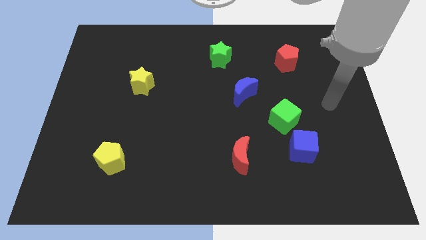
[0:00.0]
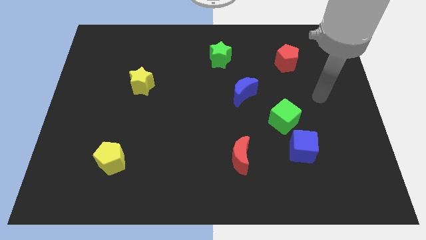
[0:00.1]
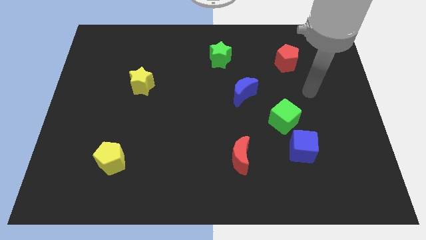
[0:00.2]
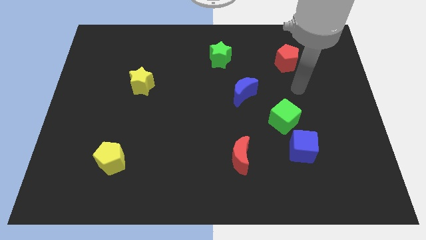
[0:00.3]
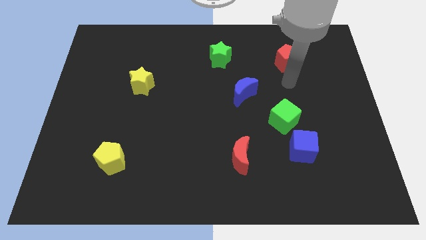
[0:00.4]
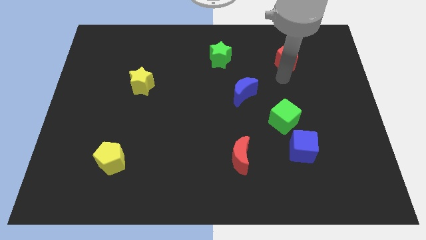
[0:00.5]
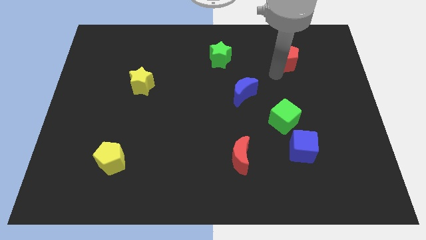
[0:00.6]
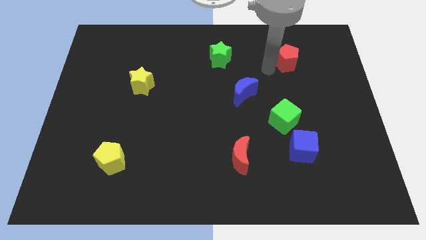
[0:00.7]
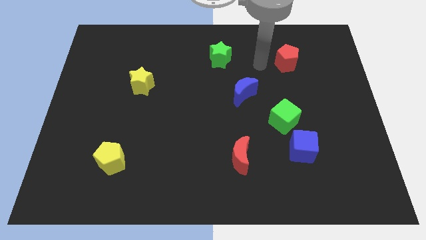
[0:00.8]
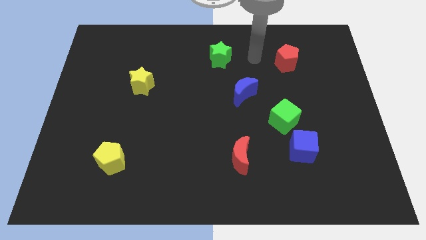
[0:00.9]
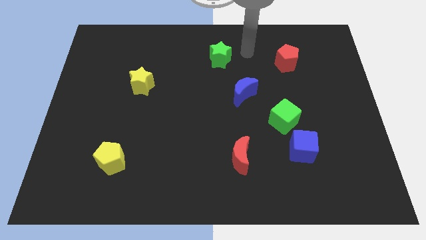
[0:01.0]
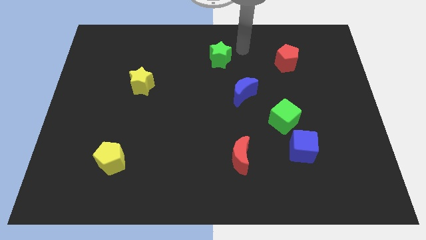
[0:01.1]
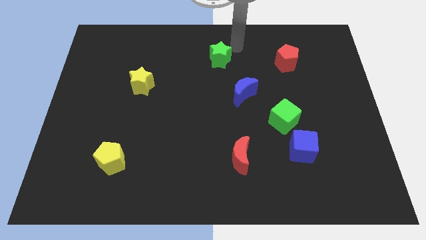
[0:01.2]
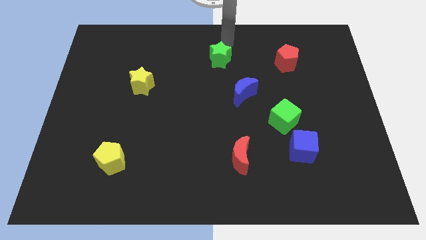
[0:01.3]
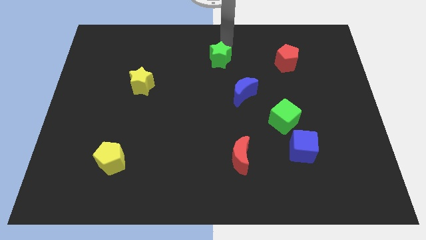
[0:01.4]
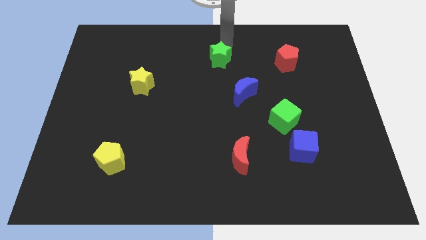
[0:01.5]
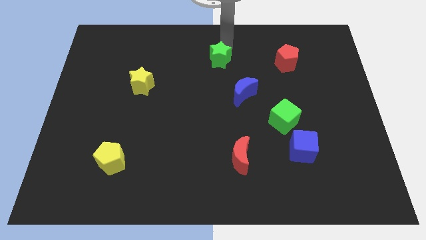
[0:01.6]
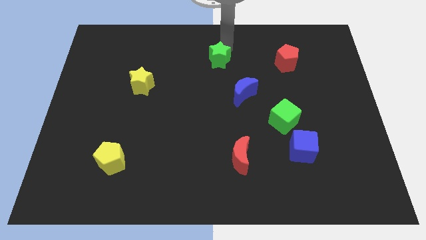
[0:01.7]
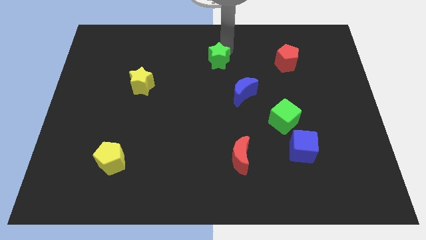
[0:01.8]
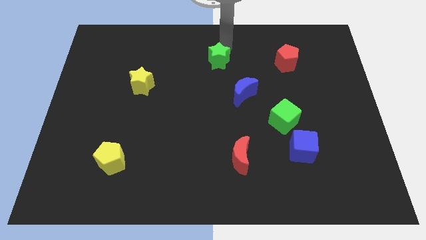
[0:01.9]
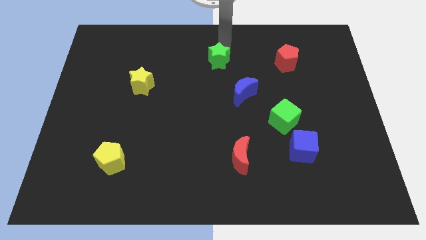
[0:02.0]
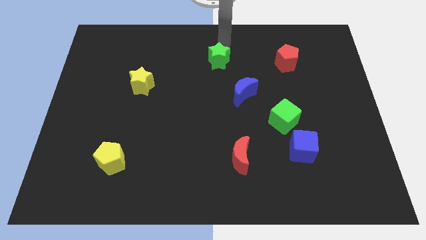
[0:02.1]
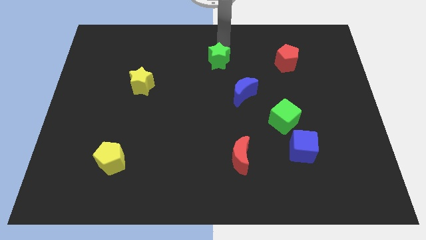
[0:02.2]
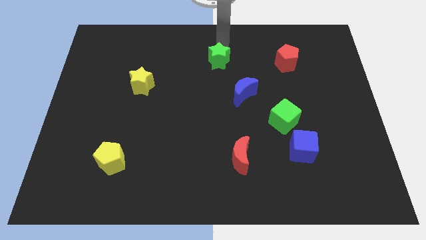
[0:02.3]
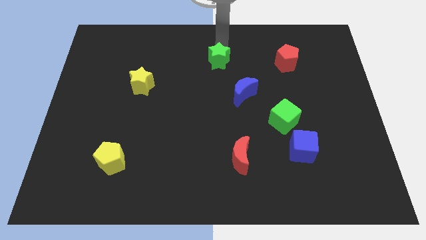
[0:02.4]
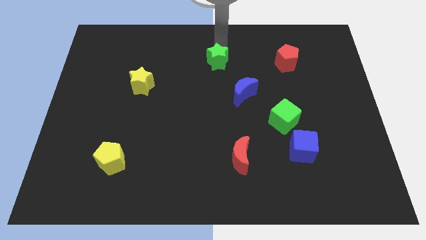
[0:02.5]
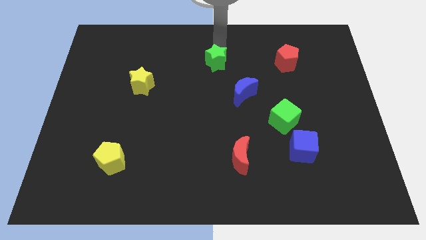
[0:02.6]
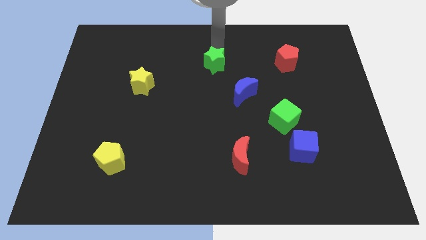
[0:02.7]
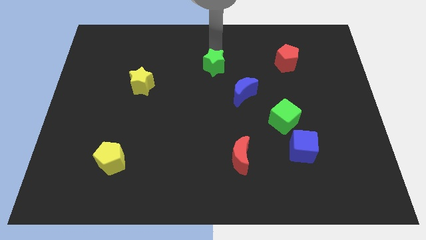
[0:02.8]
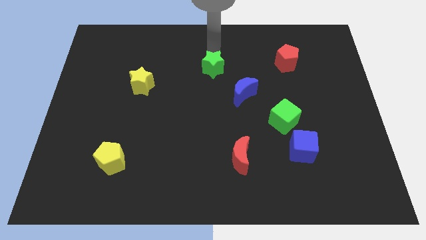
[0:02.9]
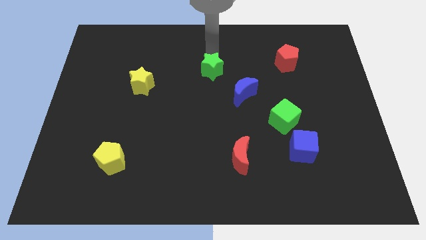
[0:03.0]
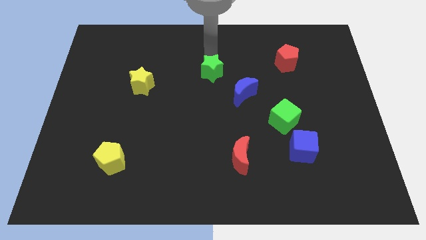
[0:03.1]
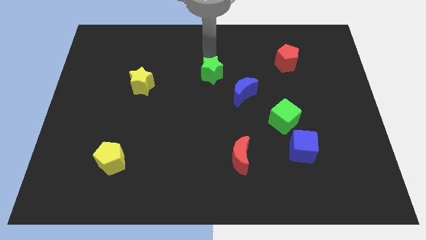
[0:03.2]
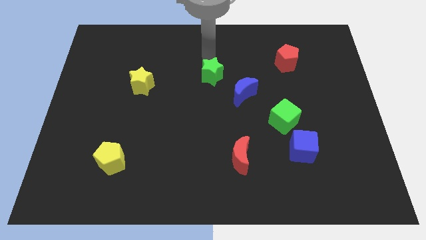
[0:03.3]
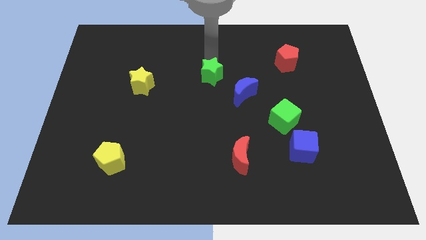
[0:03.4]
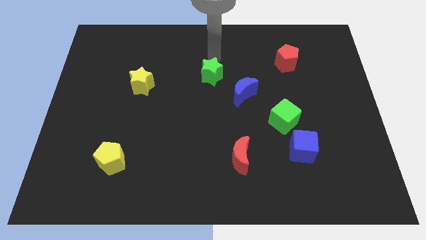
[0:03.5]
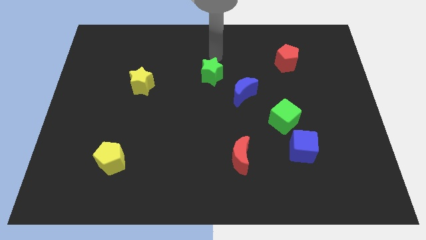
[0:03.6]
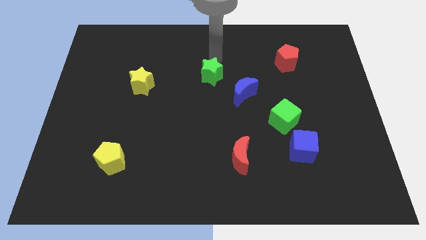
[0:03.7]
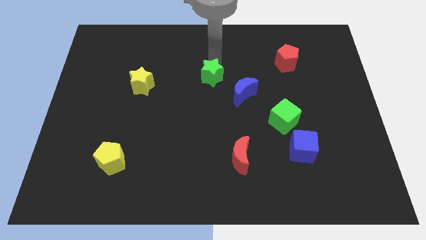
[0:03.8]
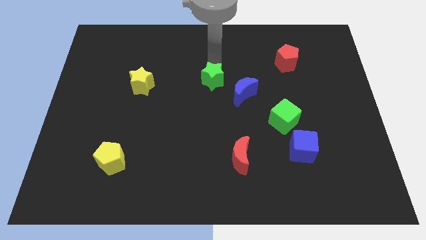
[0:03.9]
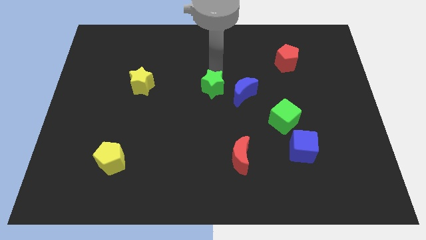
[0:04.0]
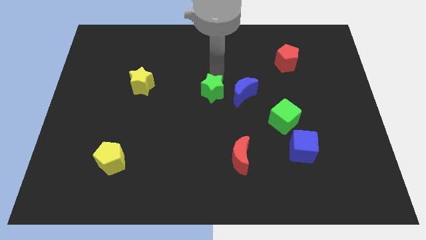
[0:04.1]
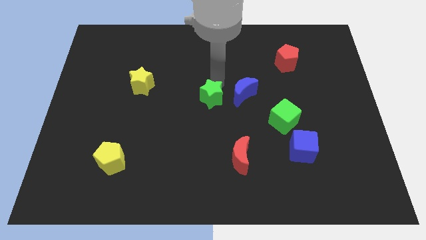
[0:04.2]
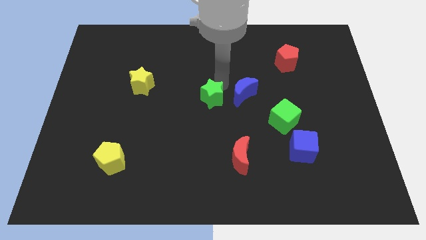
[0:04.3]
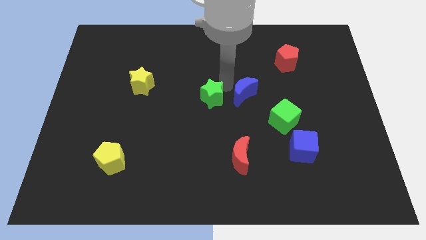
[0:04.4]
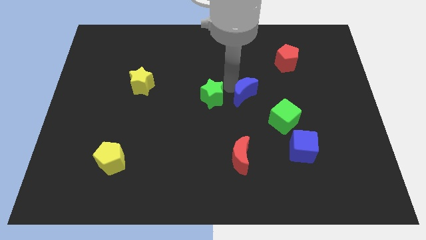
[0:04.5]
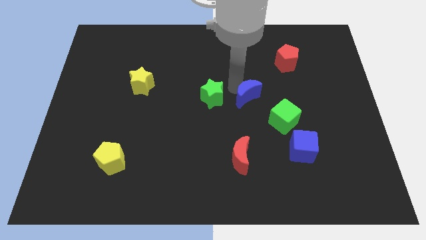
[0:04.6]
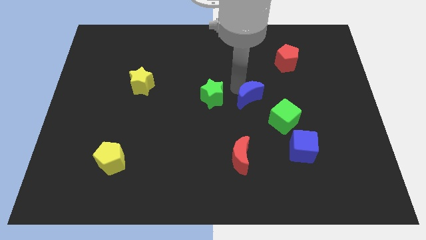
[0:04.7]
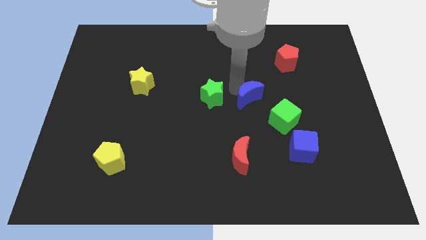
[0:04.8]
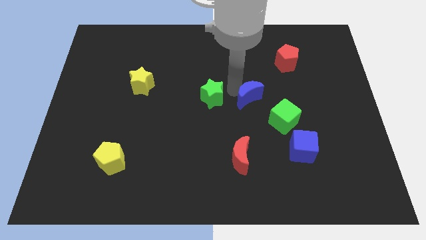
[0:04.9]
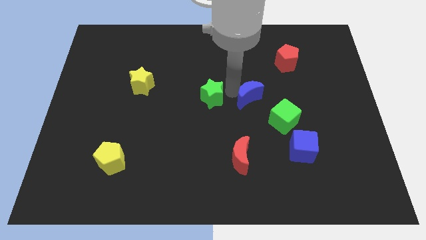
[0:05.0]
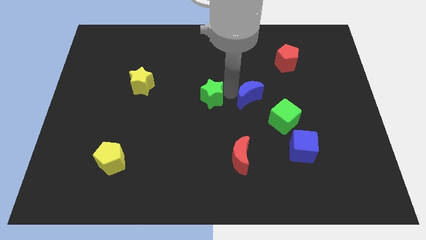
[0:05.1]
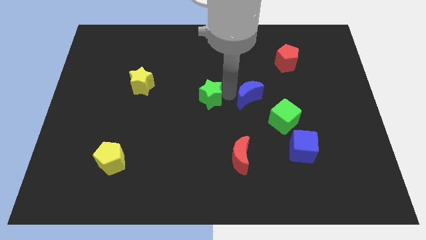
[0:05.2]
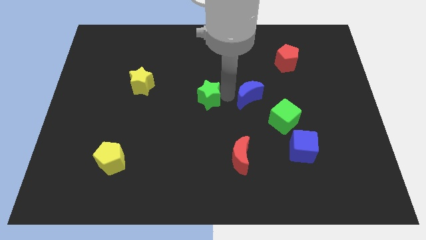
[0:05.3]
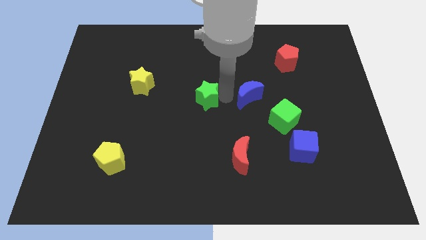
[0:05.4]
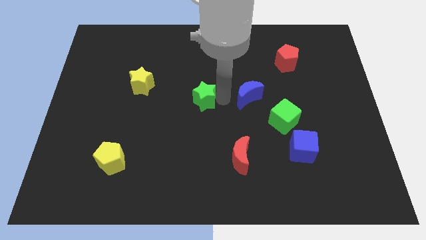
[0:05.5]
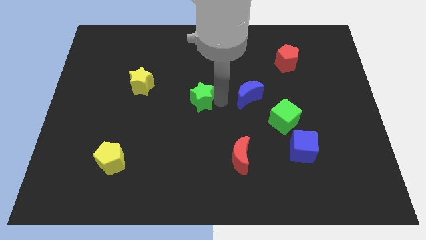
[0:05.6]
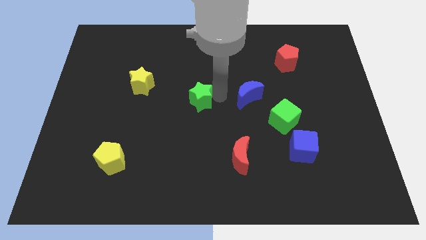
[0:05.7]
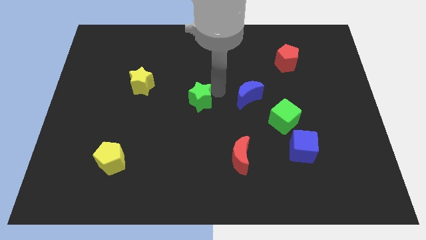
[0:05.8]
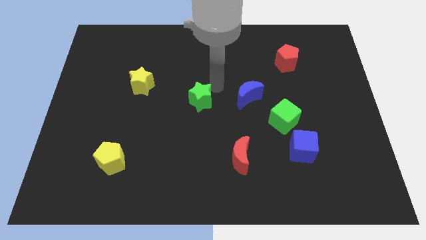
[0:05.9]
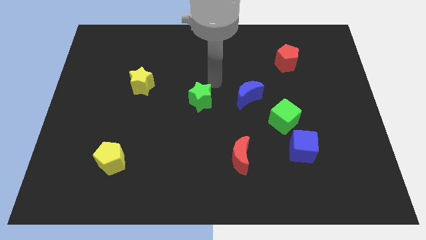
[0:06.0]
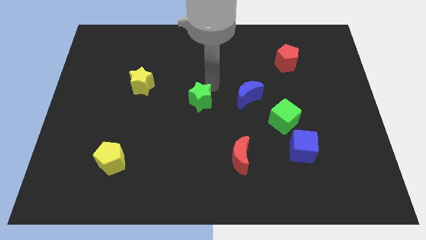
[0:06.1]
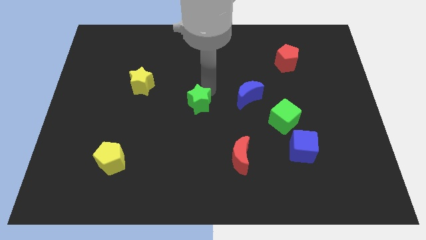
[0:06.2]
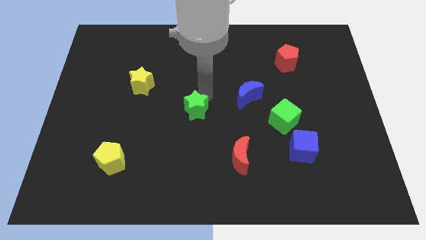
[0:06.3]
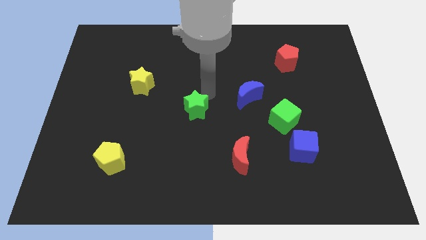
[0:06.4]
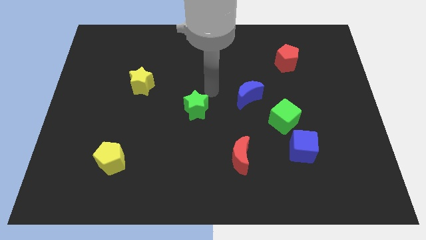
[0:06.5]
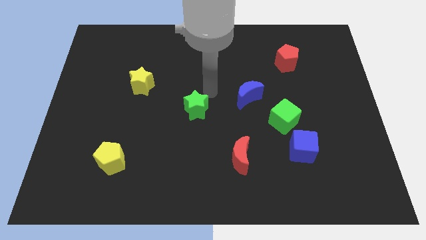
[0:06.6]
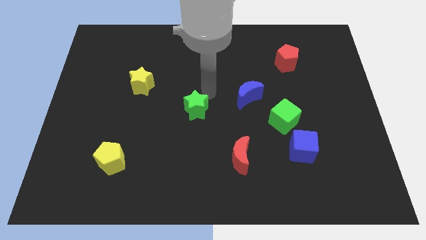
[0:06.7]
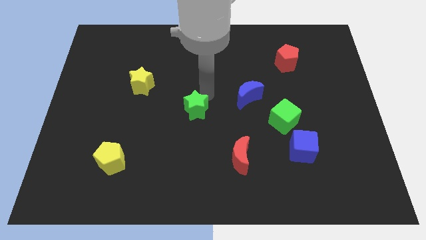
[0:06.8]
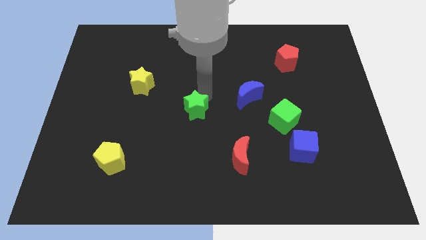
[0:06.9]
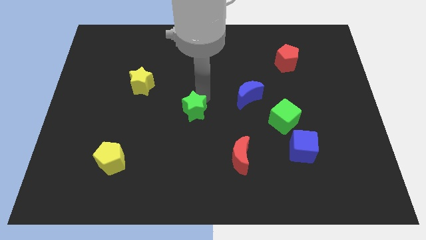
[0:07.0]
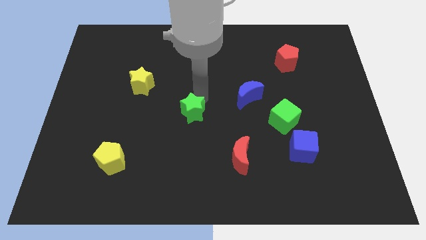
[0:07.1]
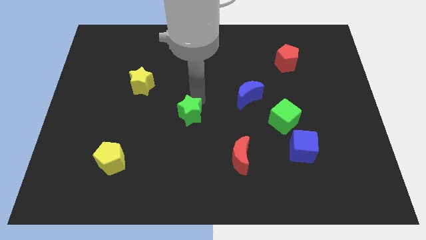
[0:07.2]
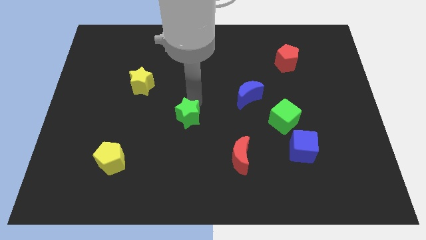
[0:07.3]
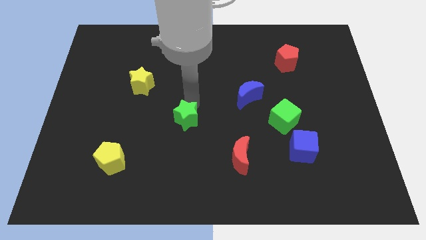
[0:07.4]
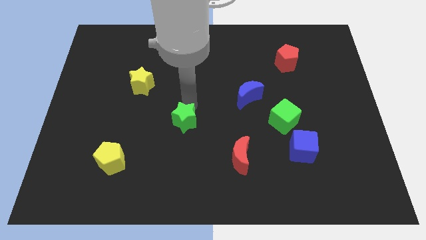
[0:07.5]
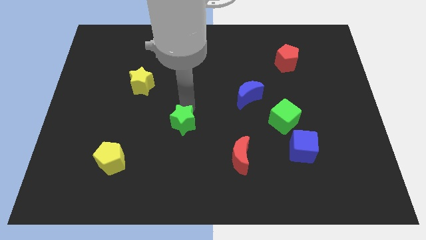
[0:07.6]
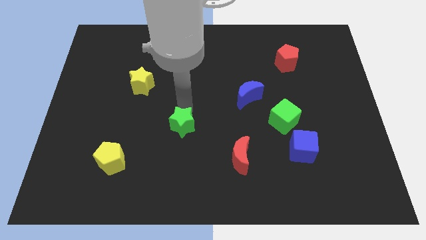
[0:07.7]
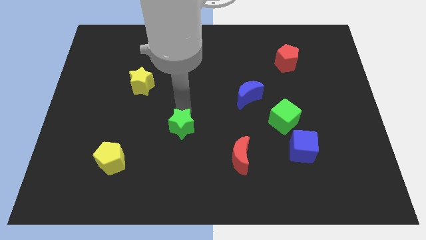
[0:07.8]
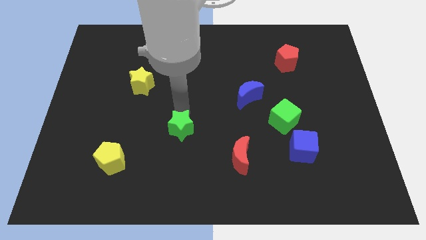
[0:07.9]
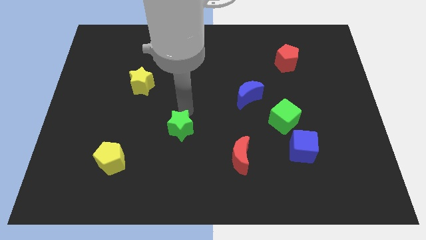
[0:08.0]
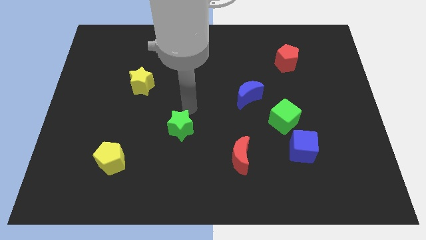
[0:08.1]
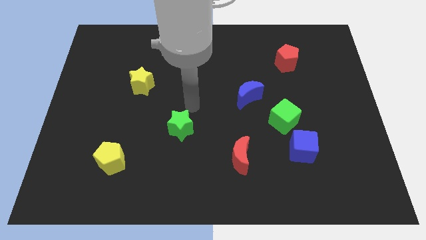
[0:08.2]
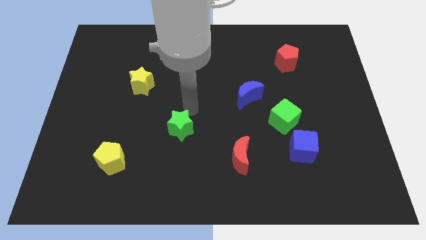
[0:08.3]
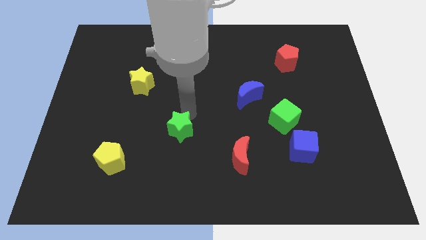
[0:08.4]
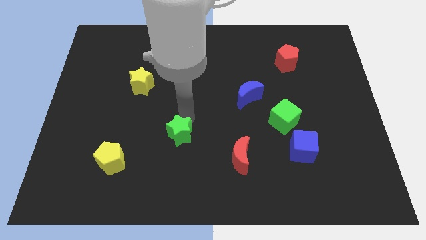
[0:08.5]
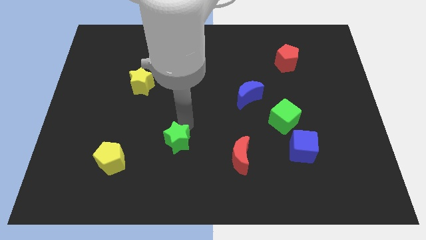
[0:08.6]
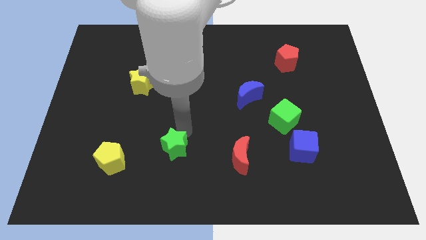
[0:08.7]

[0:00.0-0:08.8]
slide the green star just right of the yellow pentagon
